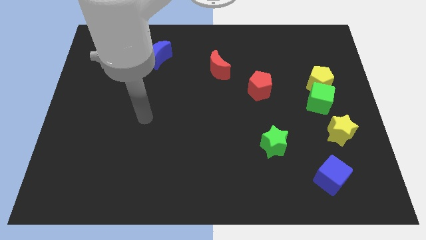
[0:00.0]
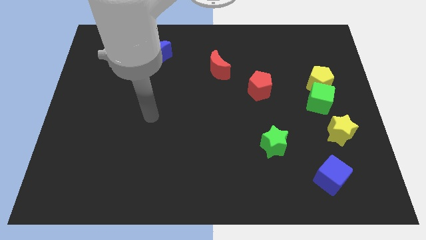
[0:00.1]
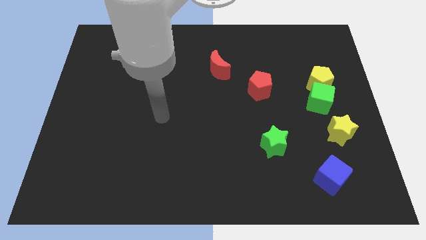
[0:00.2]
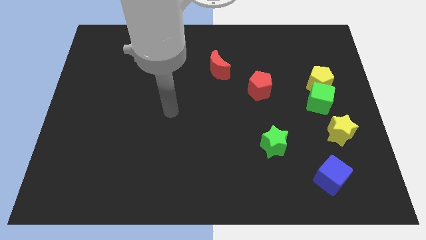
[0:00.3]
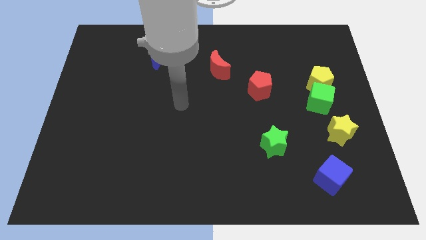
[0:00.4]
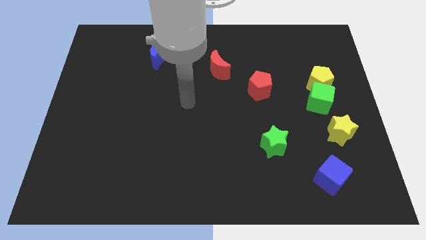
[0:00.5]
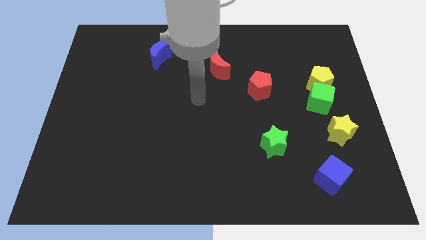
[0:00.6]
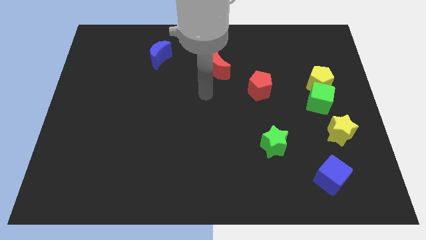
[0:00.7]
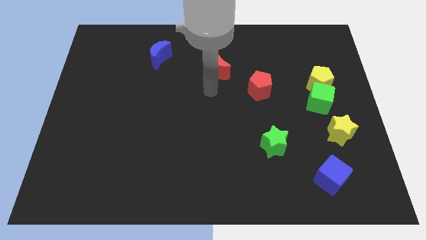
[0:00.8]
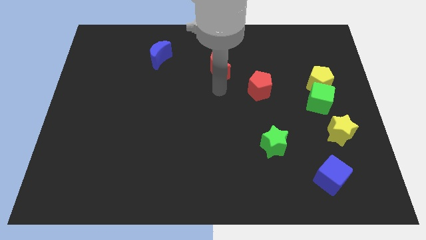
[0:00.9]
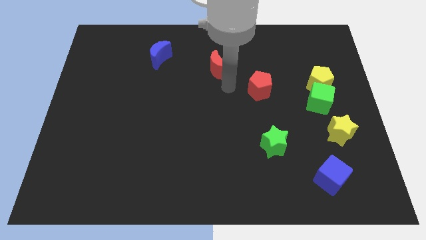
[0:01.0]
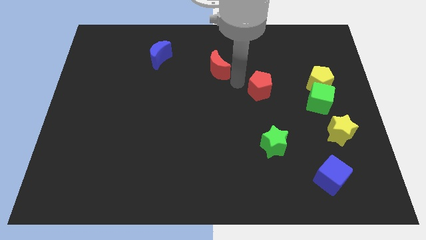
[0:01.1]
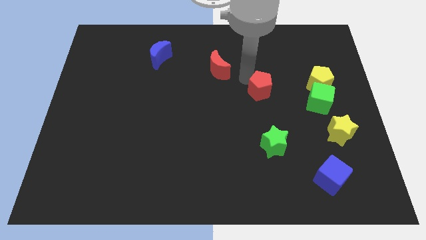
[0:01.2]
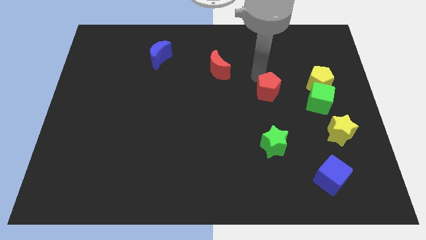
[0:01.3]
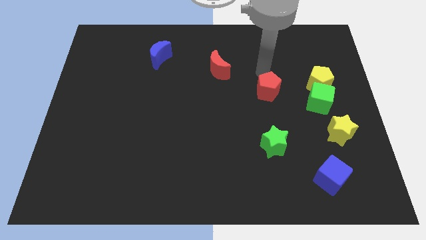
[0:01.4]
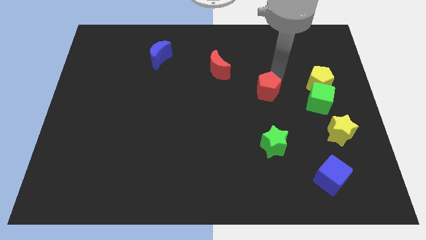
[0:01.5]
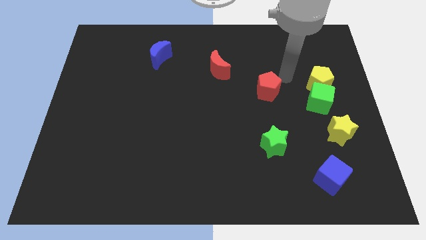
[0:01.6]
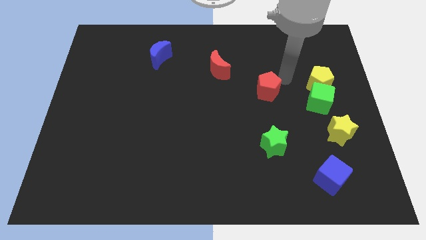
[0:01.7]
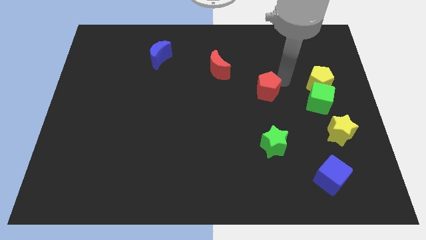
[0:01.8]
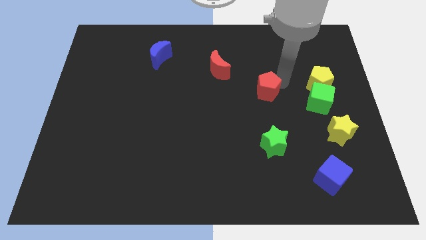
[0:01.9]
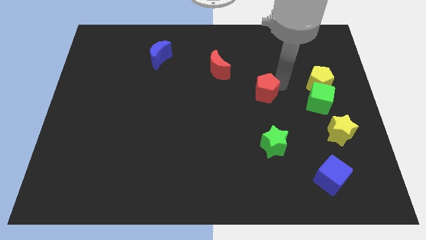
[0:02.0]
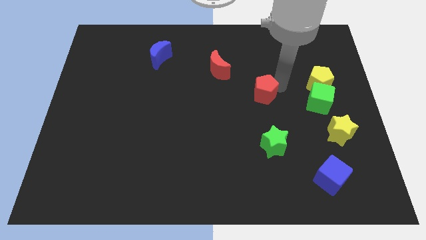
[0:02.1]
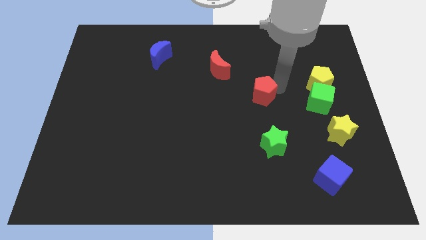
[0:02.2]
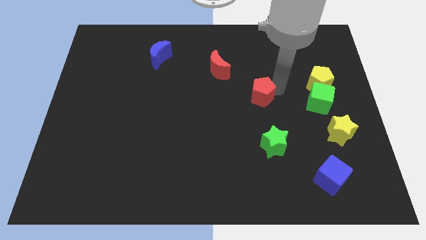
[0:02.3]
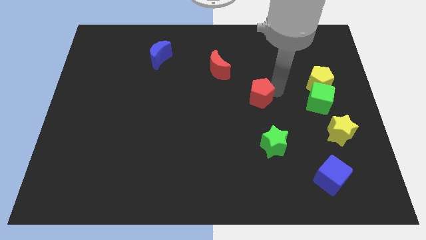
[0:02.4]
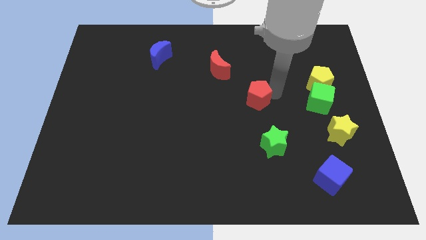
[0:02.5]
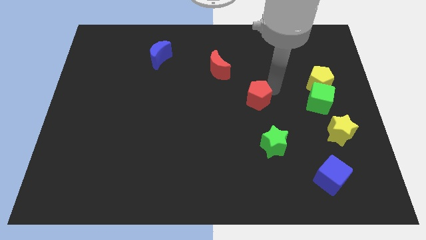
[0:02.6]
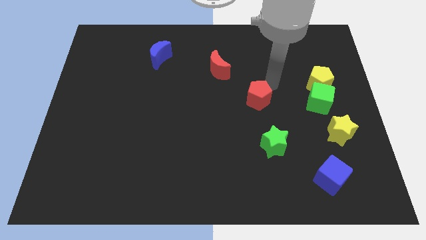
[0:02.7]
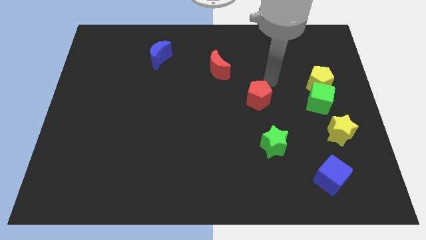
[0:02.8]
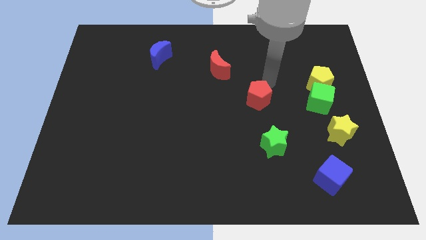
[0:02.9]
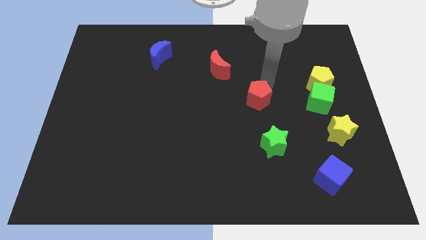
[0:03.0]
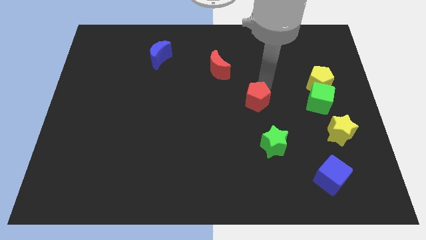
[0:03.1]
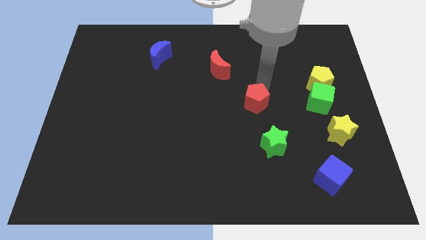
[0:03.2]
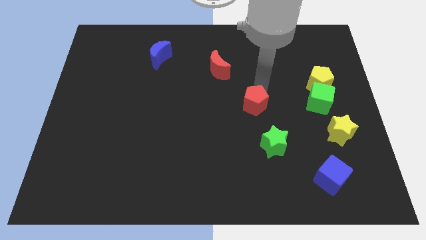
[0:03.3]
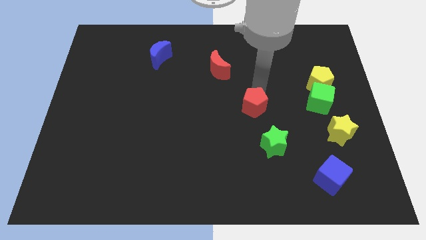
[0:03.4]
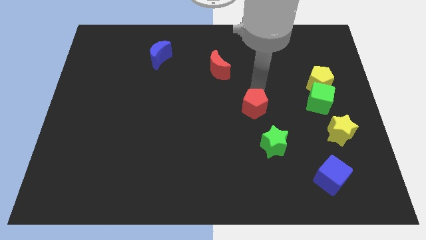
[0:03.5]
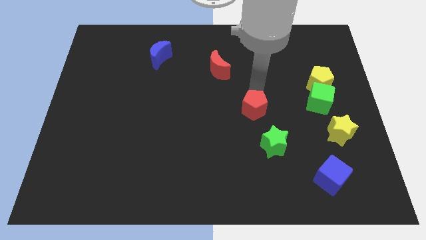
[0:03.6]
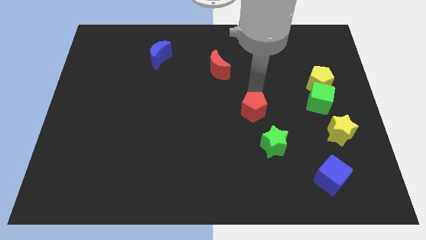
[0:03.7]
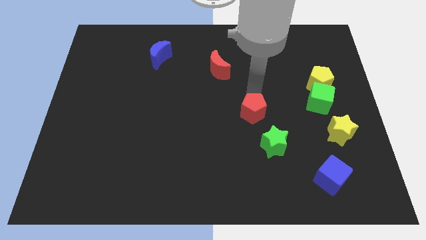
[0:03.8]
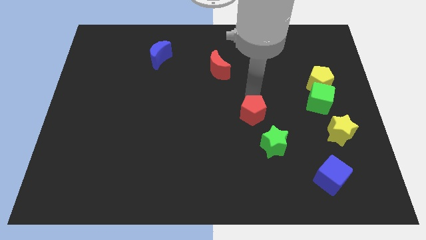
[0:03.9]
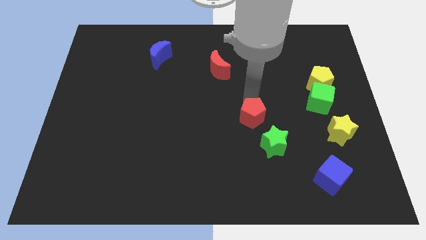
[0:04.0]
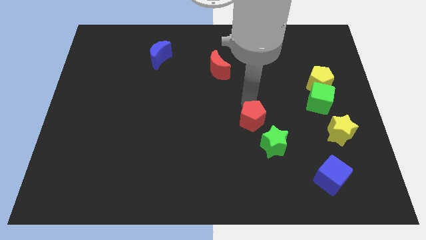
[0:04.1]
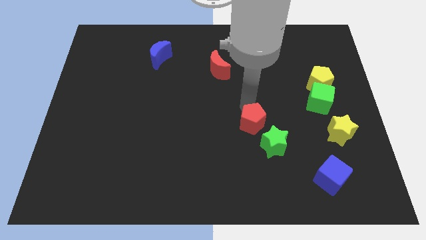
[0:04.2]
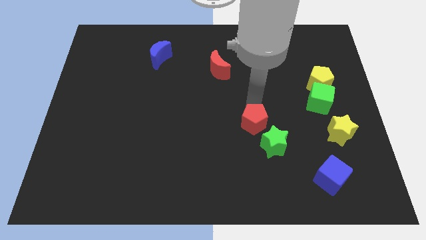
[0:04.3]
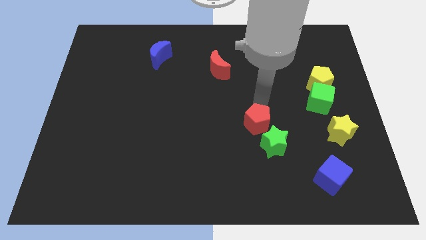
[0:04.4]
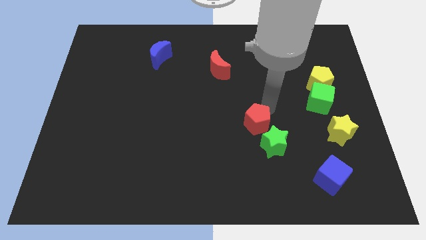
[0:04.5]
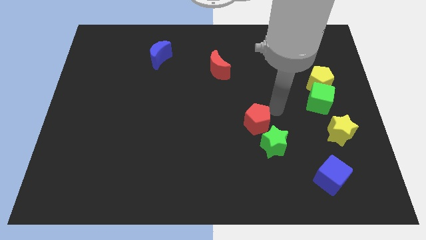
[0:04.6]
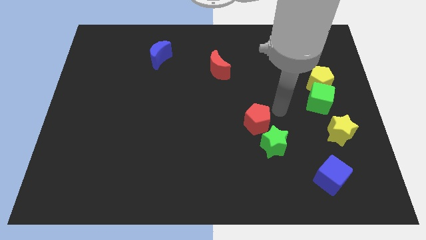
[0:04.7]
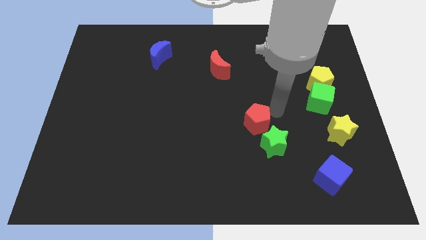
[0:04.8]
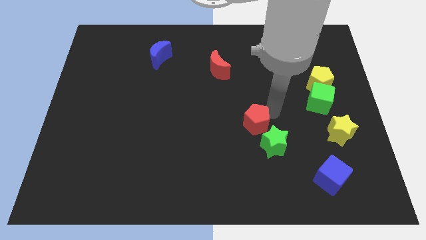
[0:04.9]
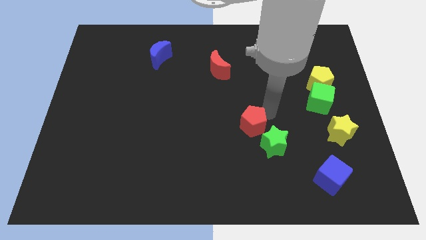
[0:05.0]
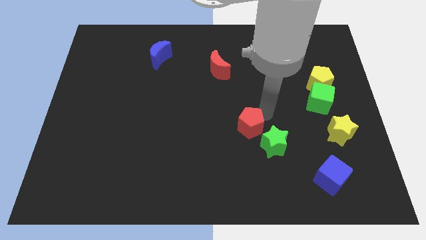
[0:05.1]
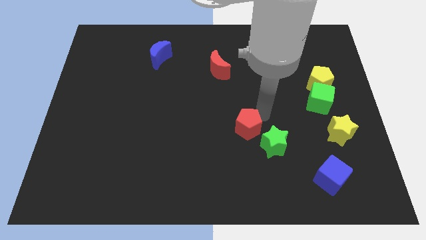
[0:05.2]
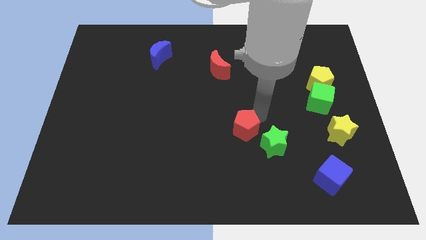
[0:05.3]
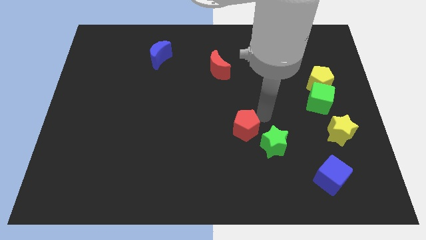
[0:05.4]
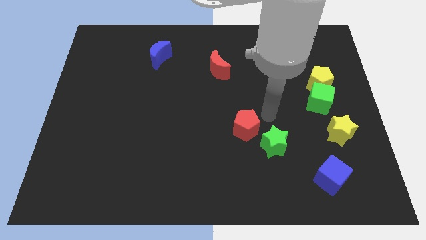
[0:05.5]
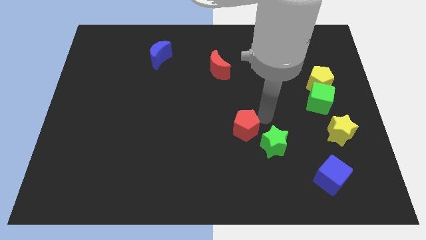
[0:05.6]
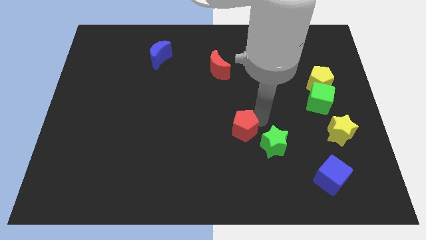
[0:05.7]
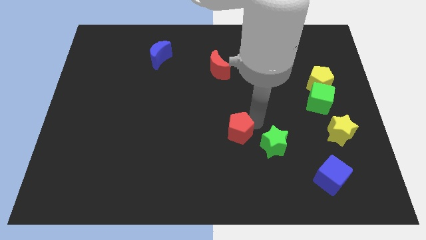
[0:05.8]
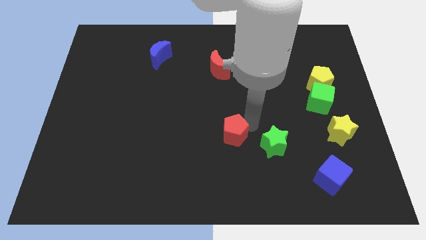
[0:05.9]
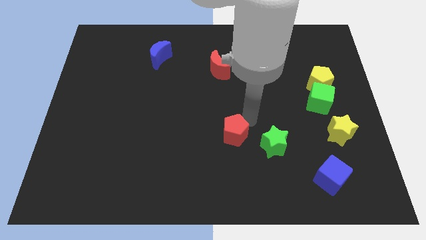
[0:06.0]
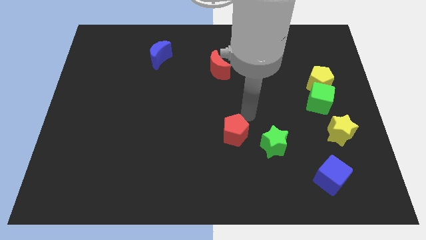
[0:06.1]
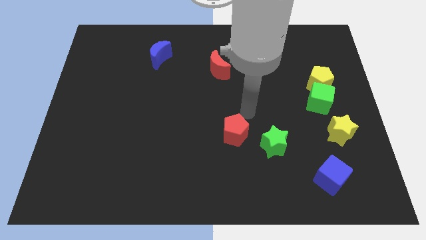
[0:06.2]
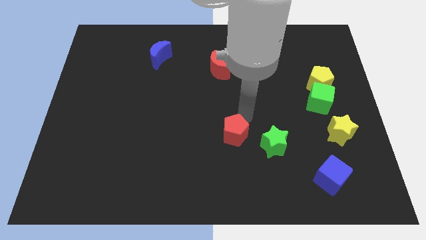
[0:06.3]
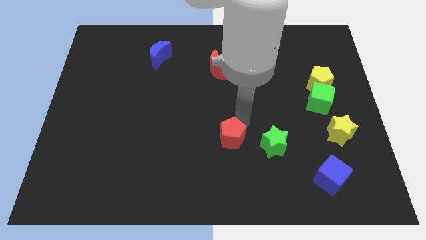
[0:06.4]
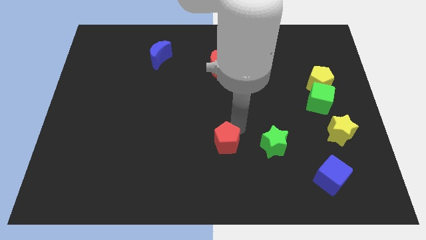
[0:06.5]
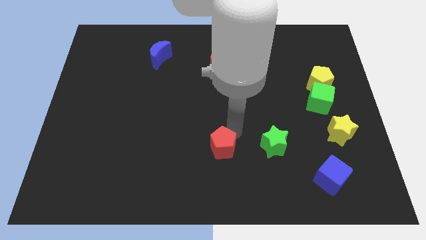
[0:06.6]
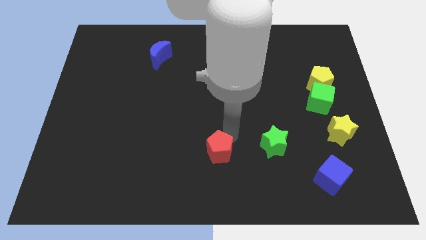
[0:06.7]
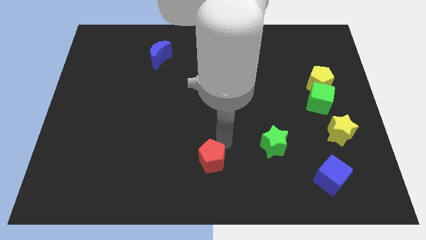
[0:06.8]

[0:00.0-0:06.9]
move the red pentagon to the bottom

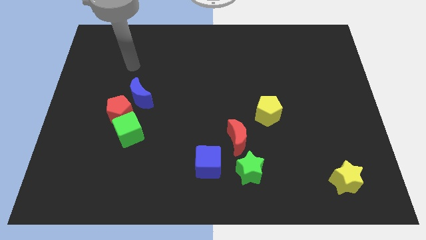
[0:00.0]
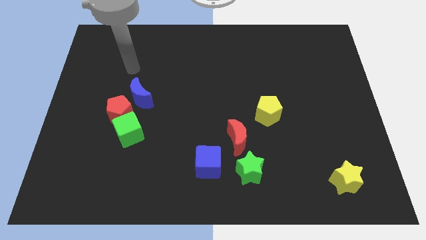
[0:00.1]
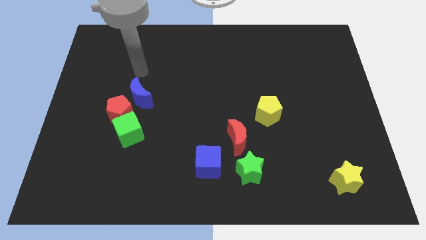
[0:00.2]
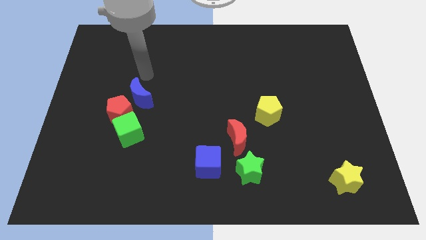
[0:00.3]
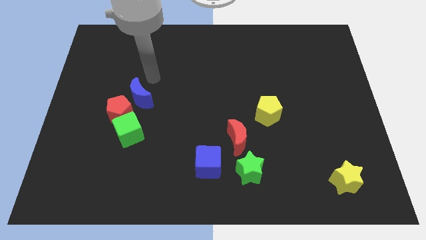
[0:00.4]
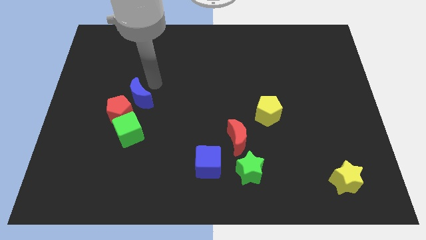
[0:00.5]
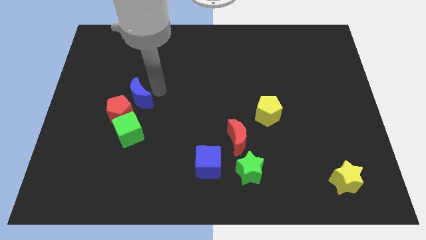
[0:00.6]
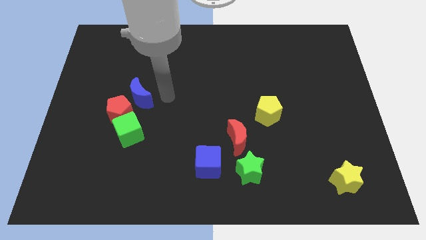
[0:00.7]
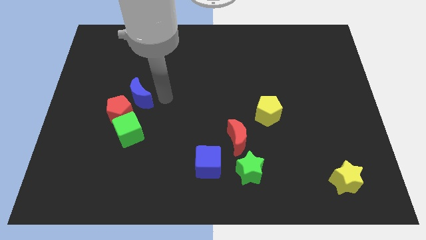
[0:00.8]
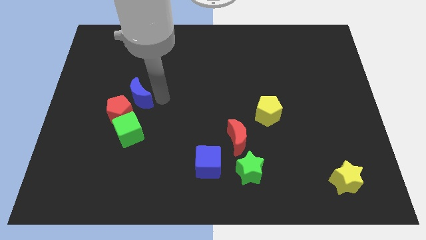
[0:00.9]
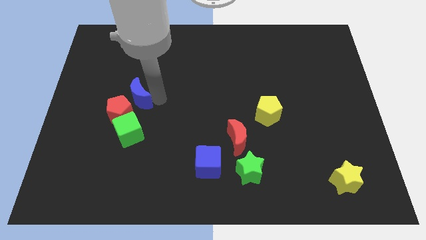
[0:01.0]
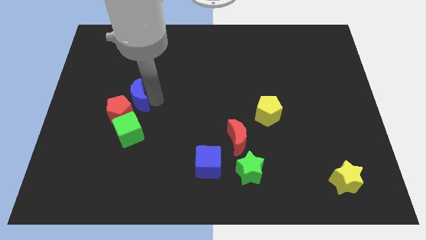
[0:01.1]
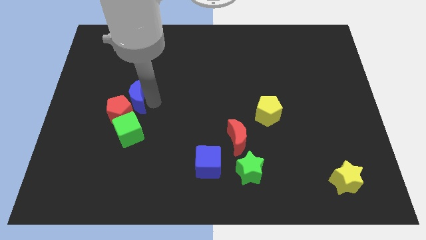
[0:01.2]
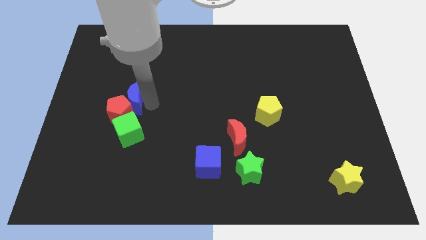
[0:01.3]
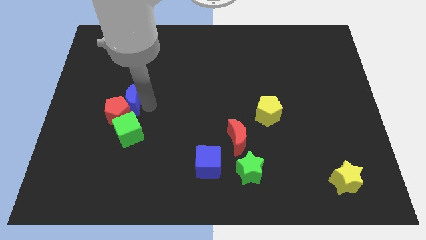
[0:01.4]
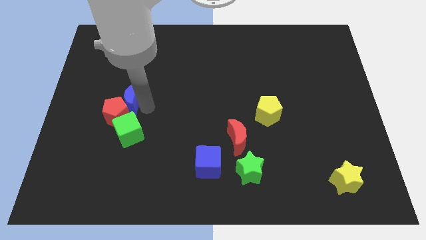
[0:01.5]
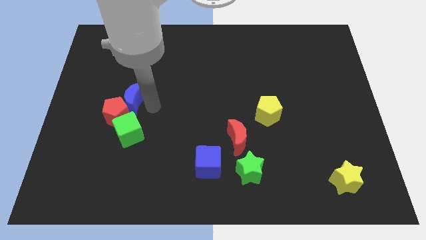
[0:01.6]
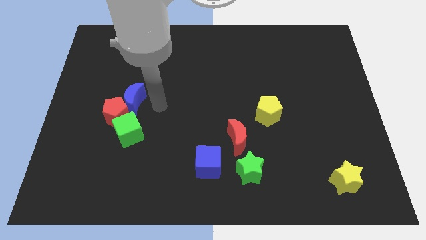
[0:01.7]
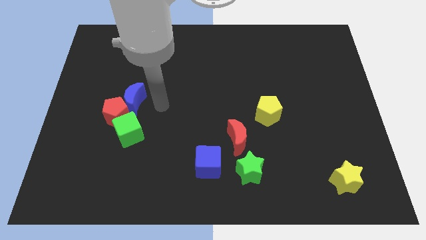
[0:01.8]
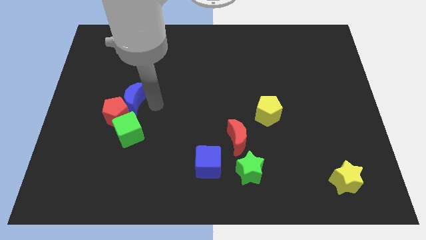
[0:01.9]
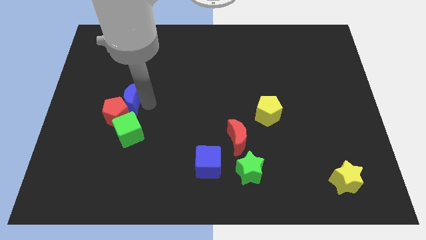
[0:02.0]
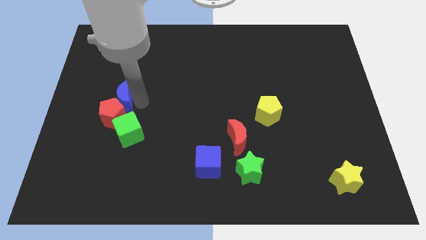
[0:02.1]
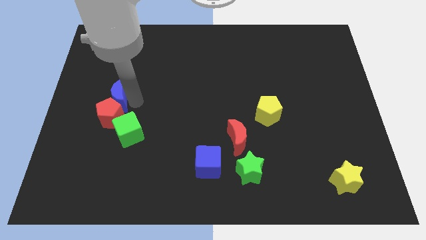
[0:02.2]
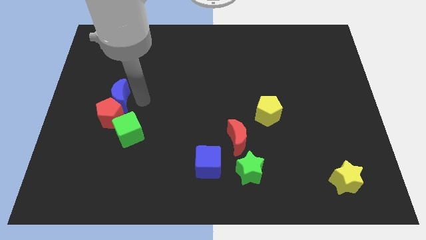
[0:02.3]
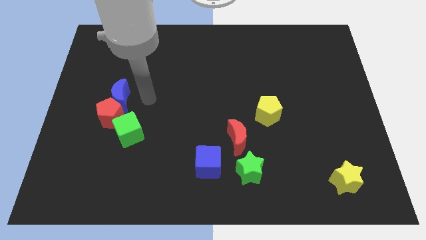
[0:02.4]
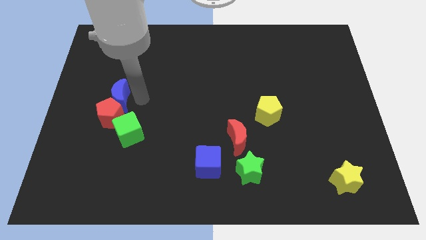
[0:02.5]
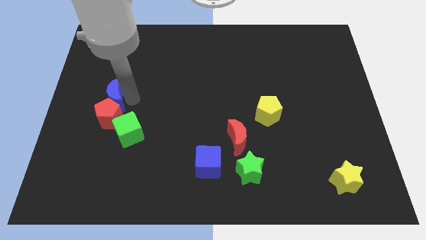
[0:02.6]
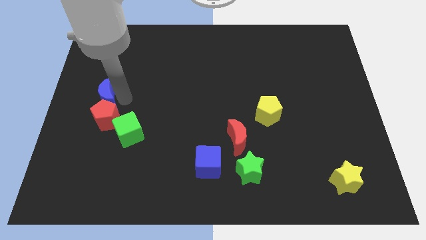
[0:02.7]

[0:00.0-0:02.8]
slide the blue moon to the left side
